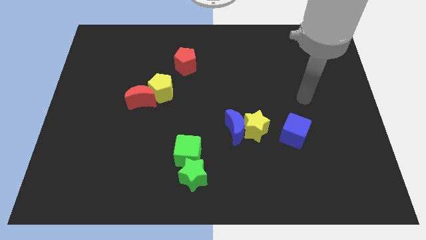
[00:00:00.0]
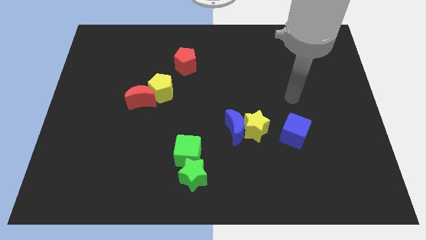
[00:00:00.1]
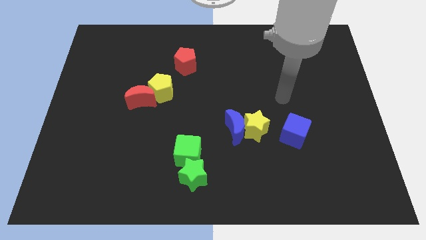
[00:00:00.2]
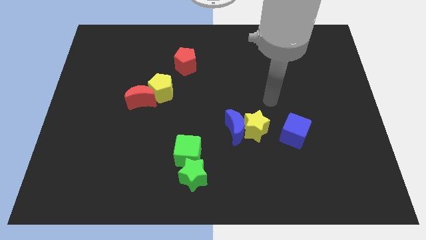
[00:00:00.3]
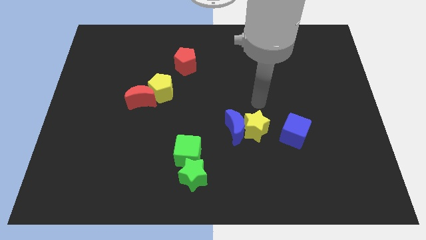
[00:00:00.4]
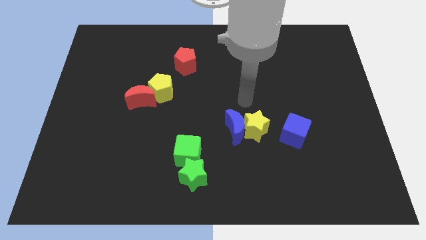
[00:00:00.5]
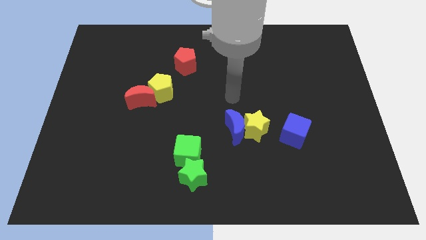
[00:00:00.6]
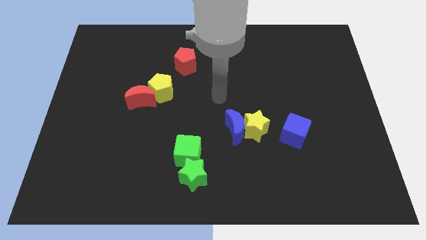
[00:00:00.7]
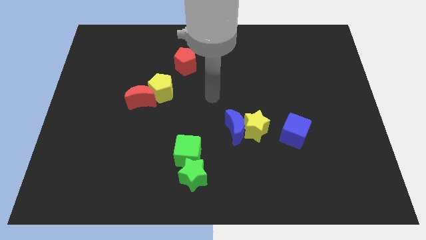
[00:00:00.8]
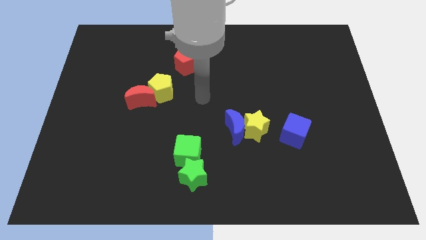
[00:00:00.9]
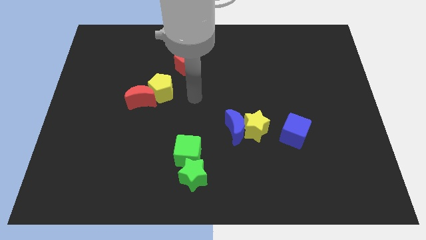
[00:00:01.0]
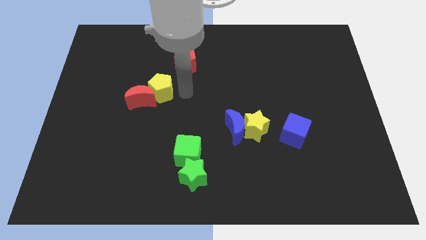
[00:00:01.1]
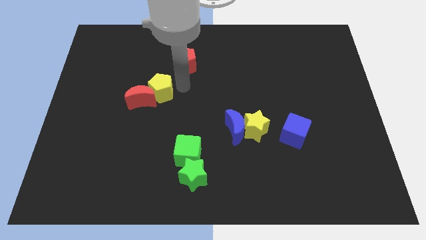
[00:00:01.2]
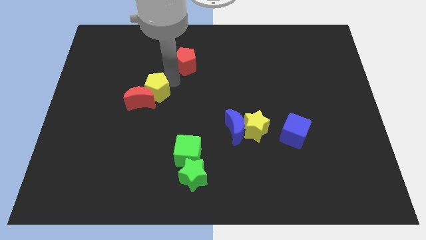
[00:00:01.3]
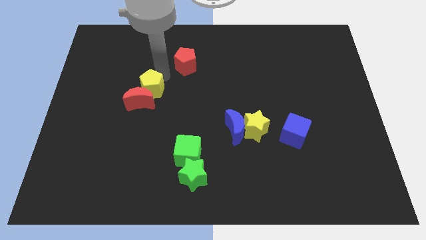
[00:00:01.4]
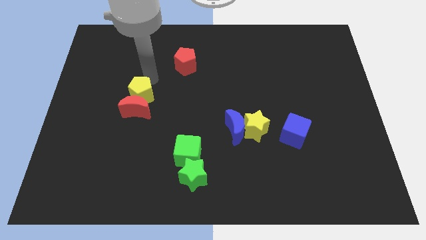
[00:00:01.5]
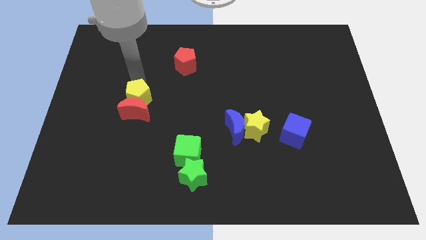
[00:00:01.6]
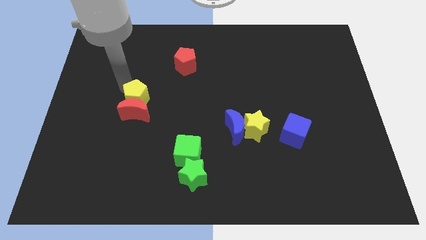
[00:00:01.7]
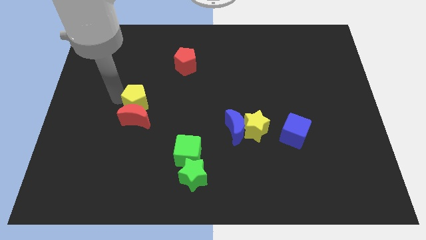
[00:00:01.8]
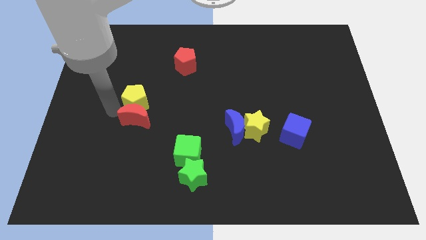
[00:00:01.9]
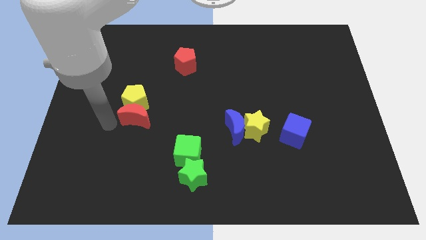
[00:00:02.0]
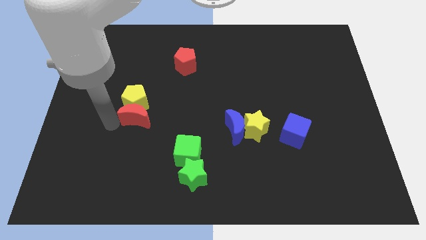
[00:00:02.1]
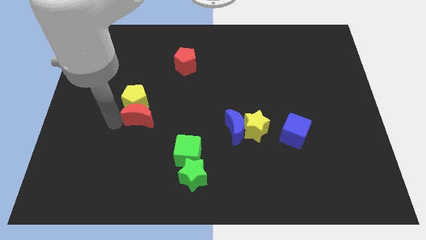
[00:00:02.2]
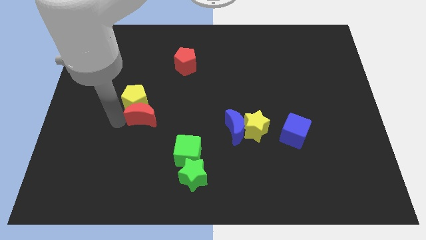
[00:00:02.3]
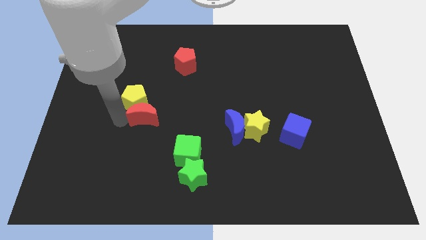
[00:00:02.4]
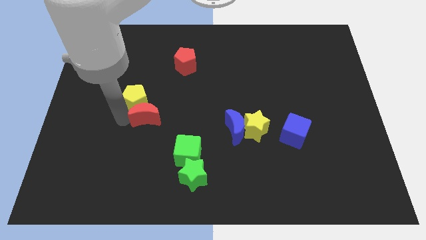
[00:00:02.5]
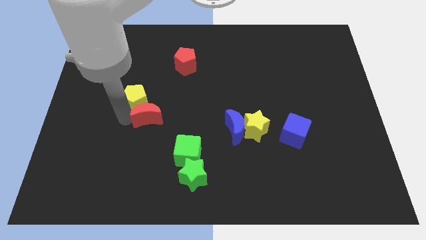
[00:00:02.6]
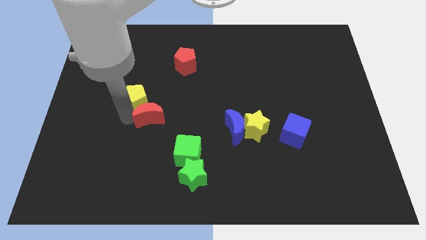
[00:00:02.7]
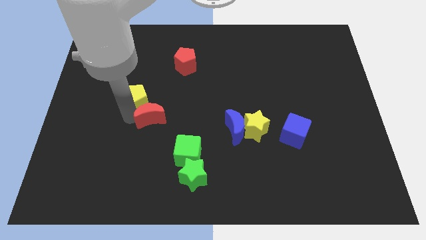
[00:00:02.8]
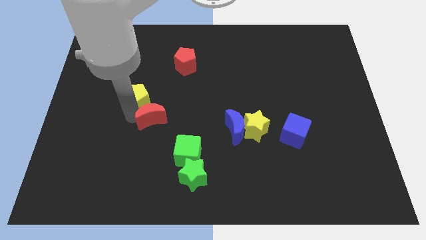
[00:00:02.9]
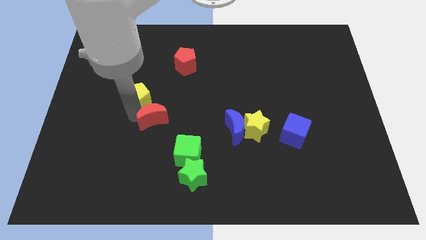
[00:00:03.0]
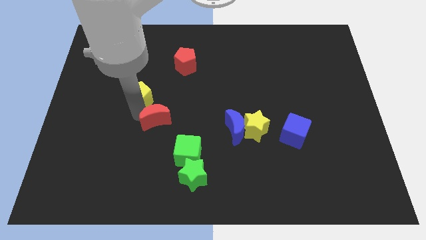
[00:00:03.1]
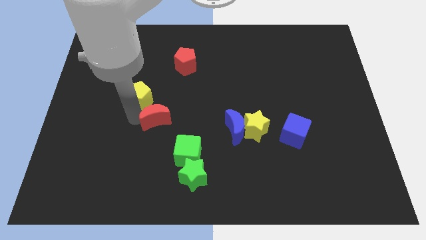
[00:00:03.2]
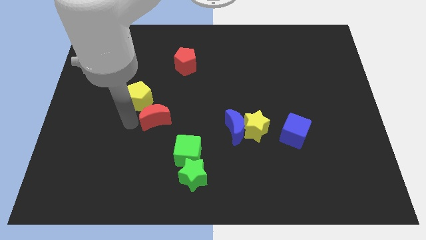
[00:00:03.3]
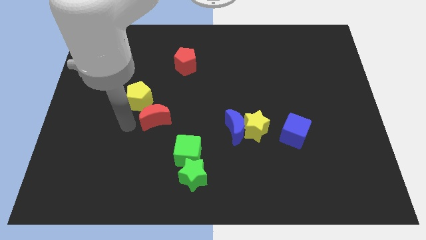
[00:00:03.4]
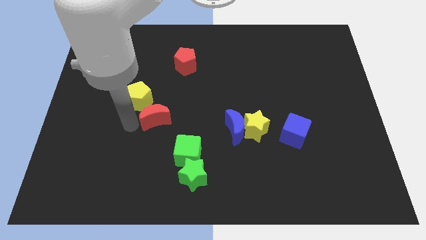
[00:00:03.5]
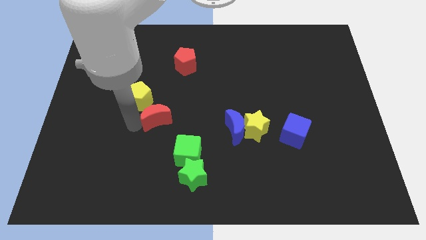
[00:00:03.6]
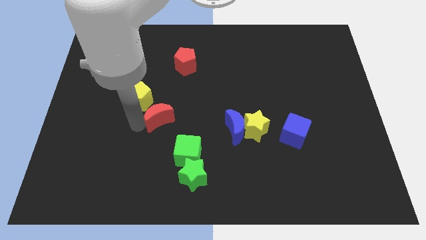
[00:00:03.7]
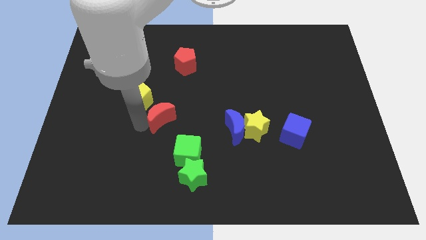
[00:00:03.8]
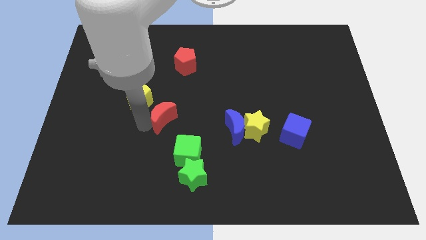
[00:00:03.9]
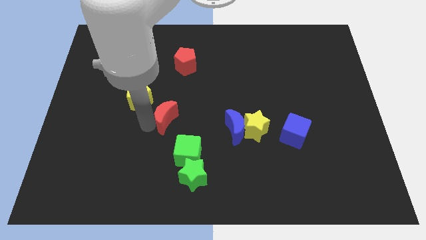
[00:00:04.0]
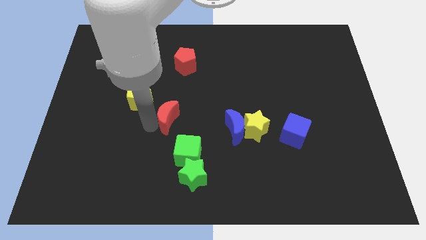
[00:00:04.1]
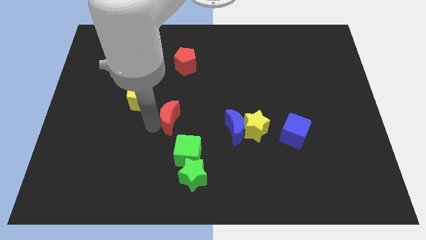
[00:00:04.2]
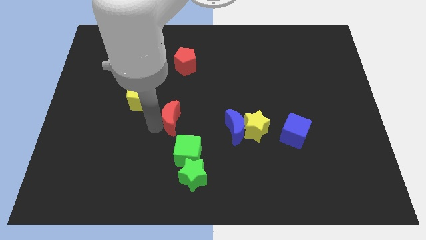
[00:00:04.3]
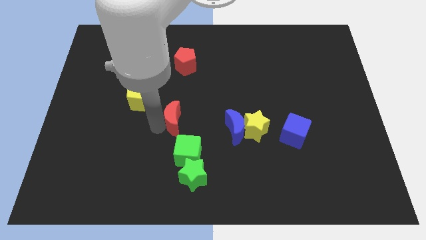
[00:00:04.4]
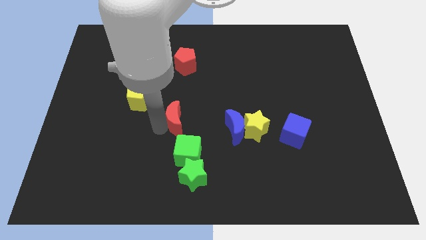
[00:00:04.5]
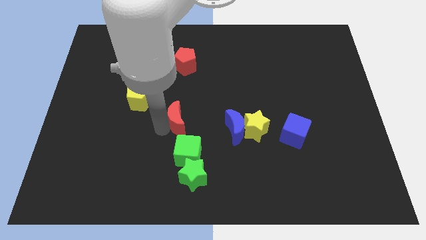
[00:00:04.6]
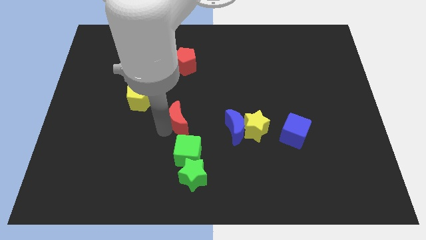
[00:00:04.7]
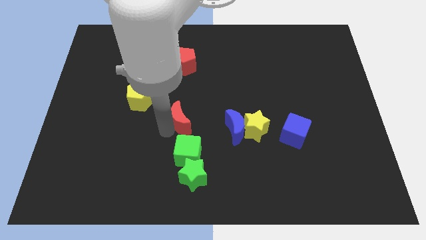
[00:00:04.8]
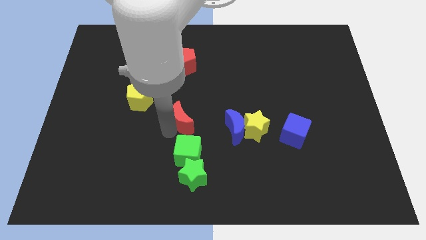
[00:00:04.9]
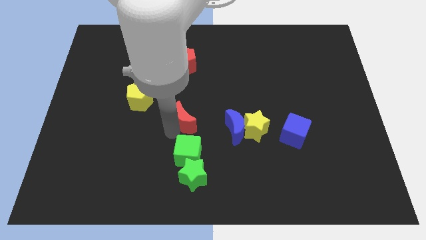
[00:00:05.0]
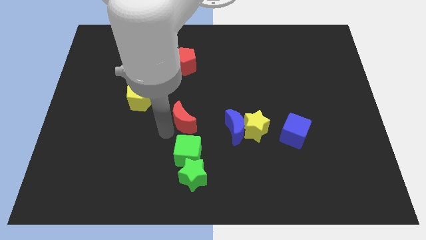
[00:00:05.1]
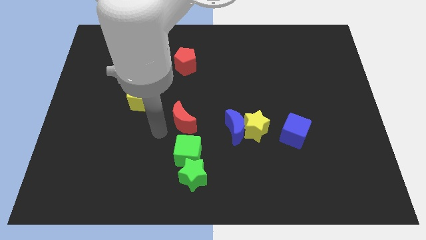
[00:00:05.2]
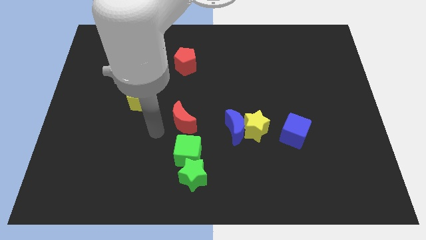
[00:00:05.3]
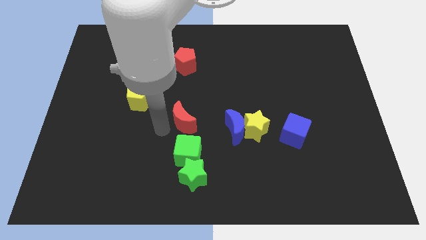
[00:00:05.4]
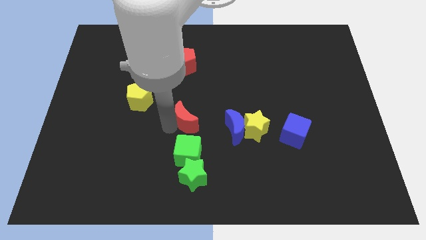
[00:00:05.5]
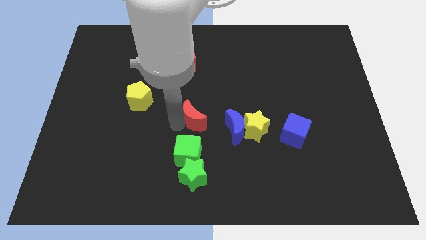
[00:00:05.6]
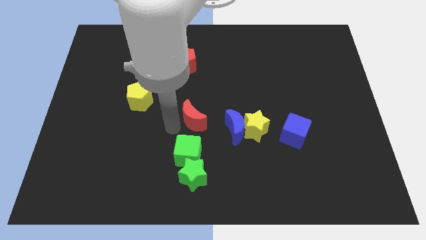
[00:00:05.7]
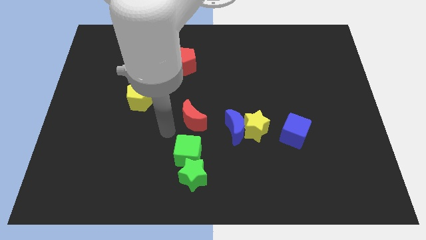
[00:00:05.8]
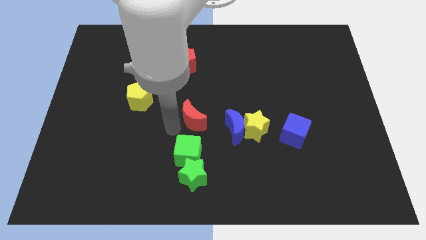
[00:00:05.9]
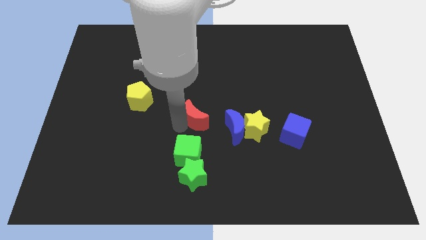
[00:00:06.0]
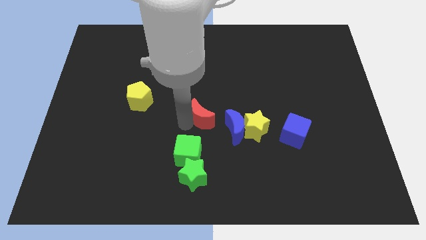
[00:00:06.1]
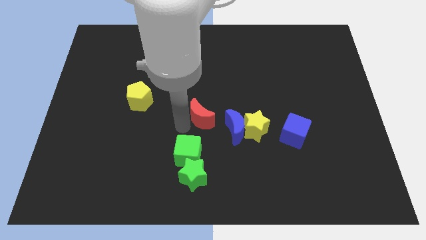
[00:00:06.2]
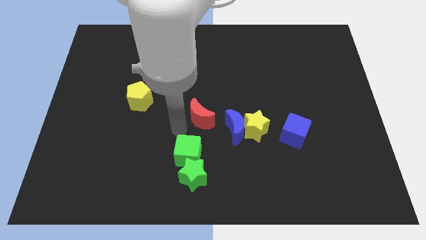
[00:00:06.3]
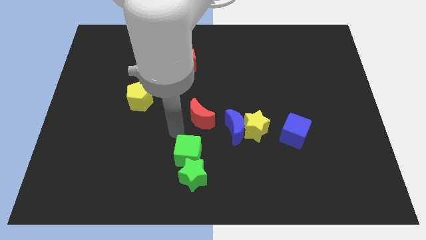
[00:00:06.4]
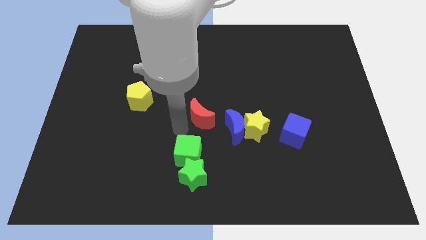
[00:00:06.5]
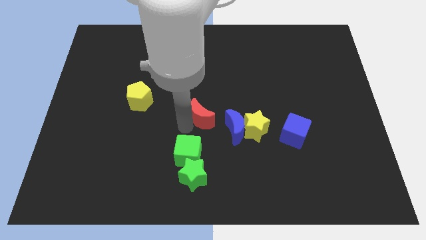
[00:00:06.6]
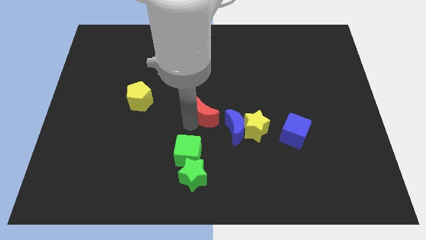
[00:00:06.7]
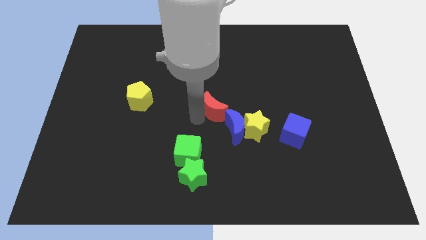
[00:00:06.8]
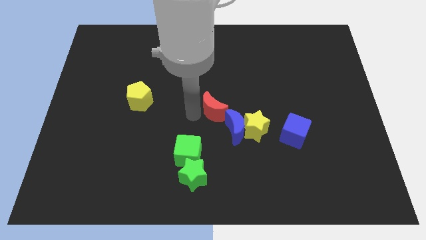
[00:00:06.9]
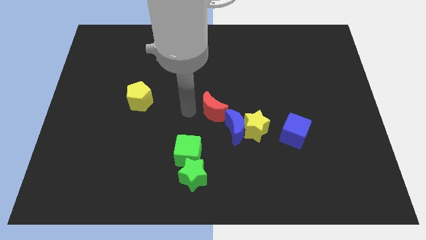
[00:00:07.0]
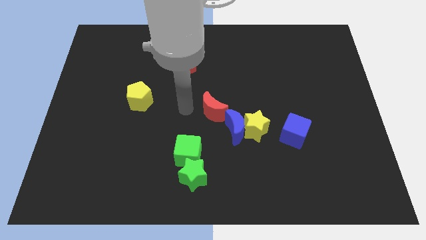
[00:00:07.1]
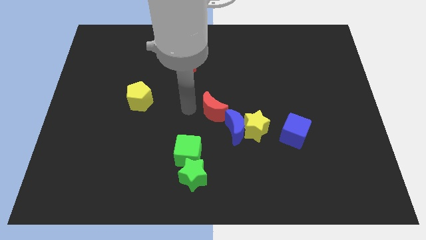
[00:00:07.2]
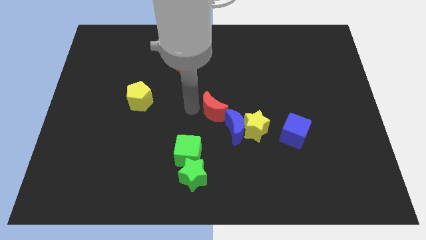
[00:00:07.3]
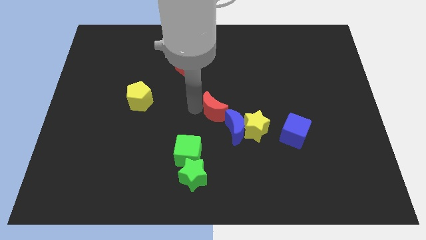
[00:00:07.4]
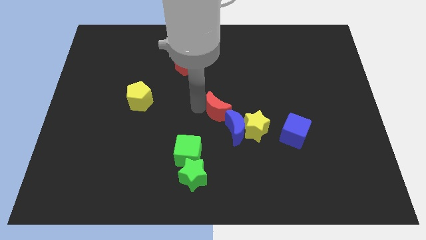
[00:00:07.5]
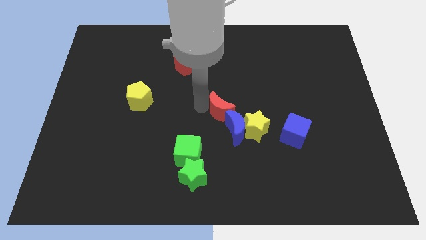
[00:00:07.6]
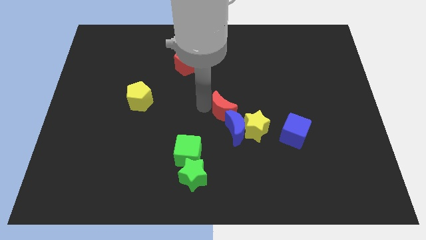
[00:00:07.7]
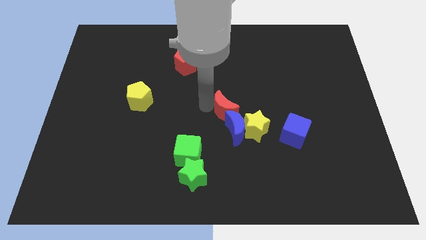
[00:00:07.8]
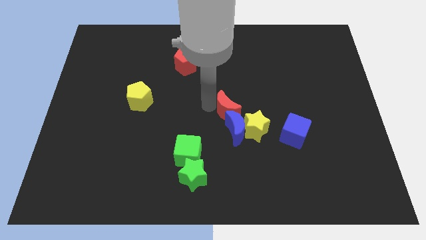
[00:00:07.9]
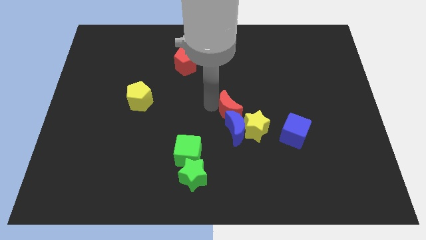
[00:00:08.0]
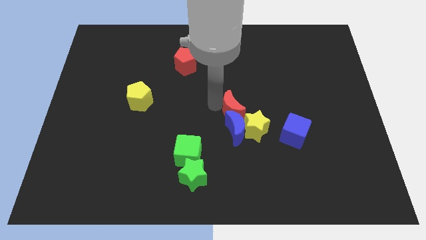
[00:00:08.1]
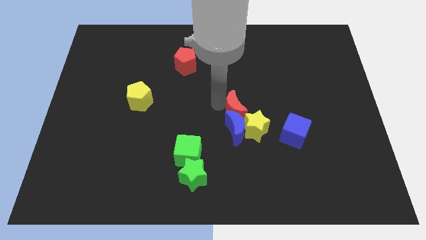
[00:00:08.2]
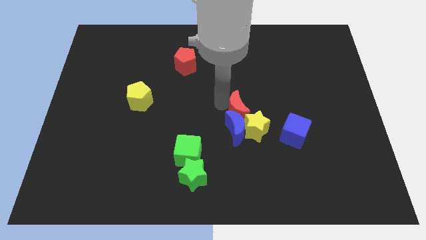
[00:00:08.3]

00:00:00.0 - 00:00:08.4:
push the red moon to the yellow star
